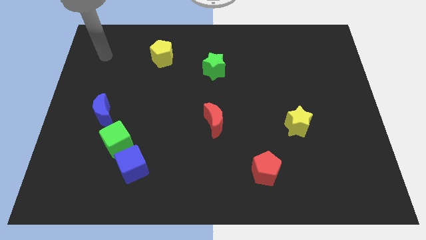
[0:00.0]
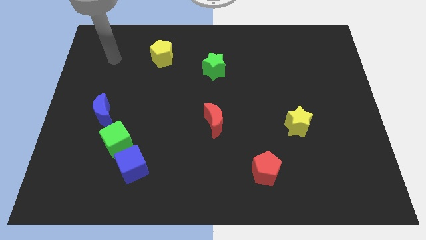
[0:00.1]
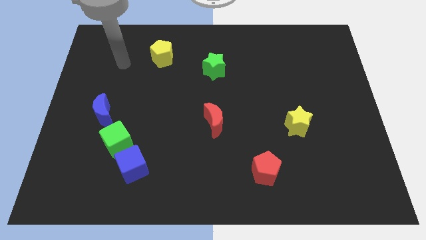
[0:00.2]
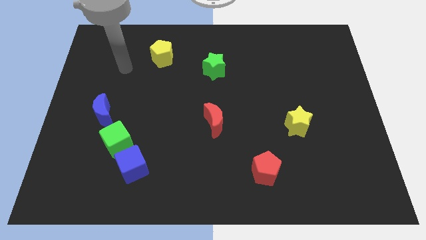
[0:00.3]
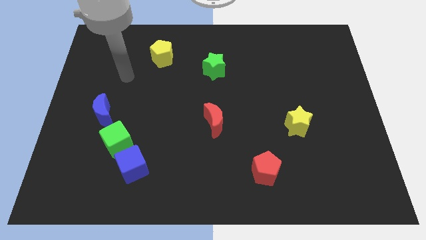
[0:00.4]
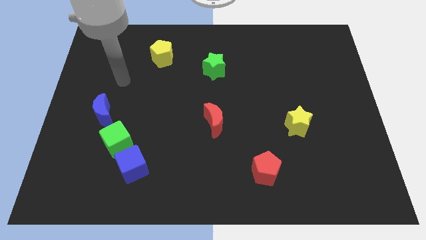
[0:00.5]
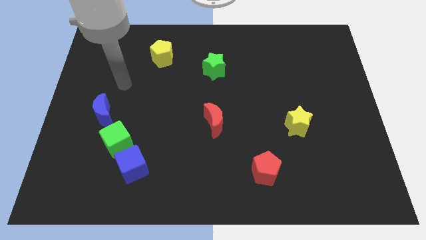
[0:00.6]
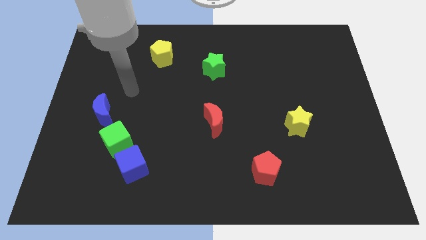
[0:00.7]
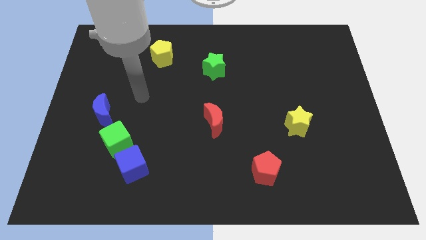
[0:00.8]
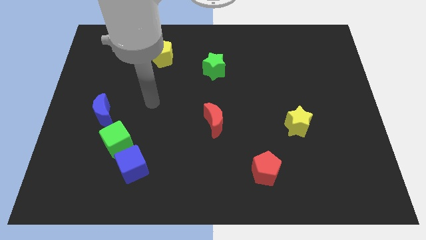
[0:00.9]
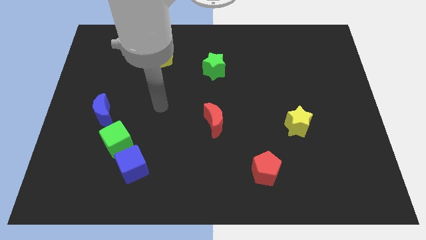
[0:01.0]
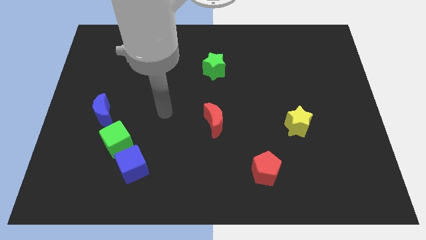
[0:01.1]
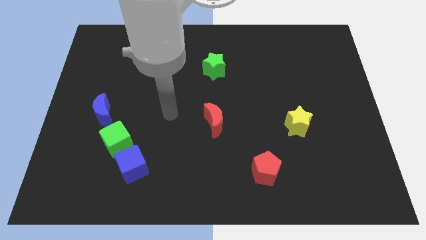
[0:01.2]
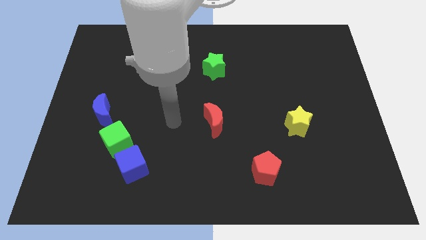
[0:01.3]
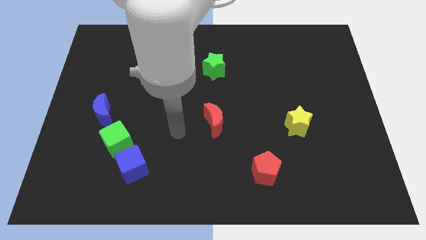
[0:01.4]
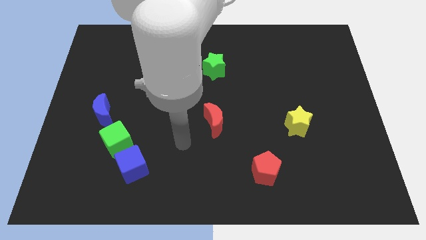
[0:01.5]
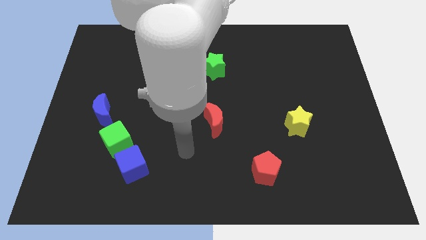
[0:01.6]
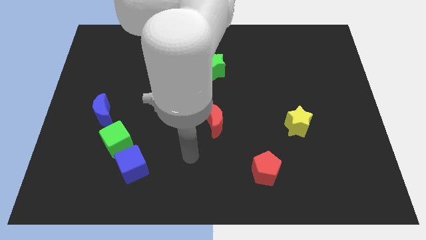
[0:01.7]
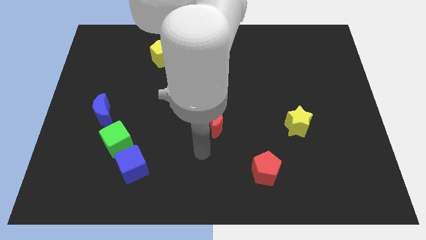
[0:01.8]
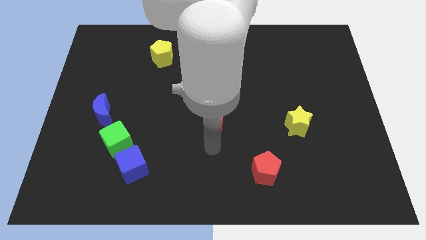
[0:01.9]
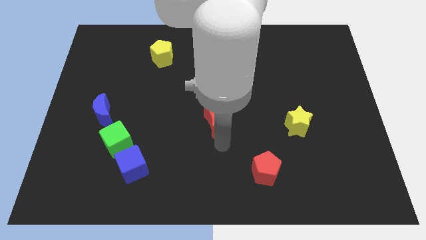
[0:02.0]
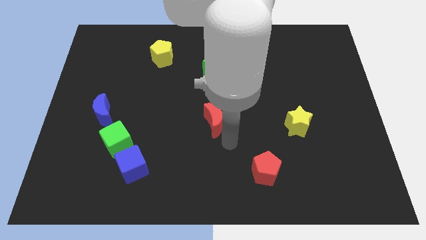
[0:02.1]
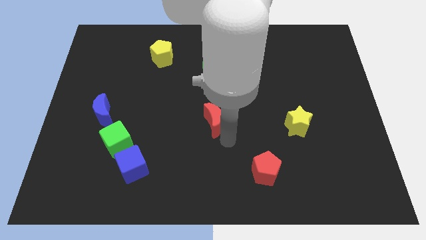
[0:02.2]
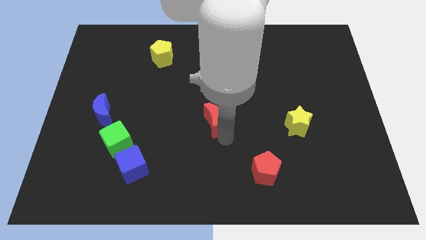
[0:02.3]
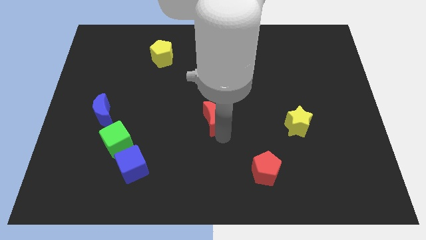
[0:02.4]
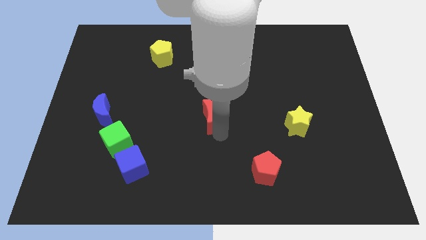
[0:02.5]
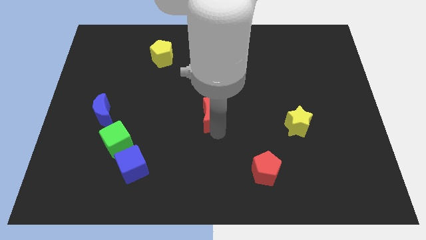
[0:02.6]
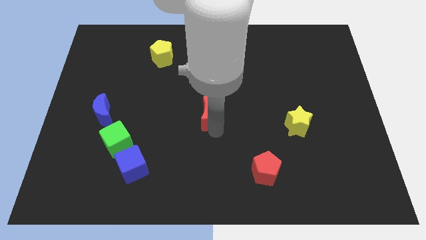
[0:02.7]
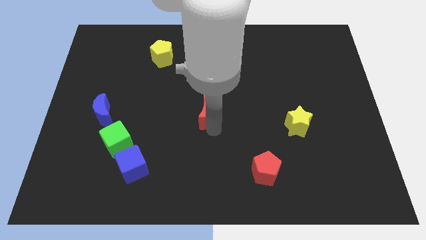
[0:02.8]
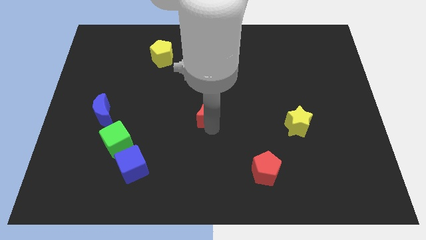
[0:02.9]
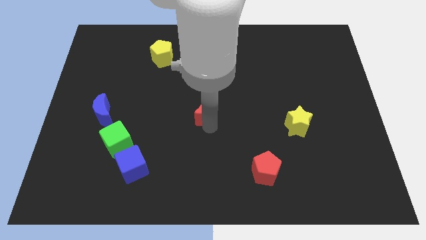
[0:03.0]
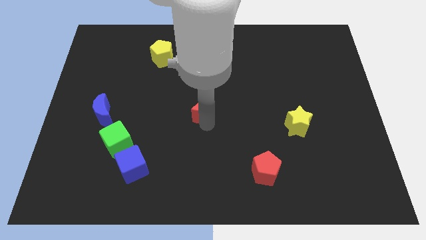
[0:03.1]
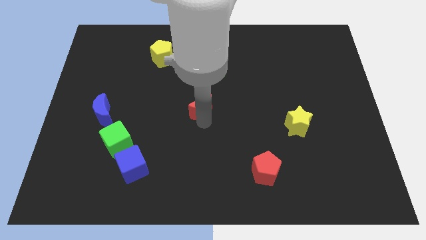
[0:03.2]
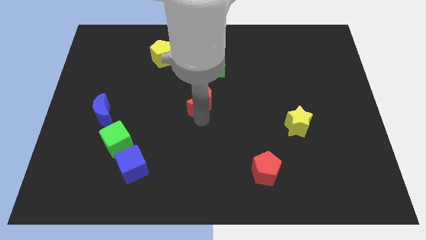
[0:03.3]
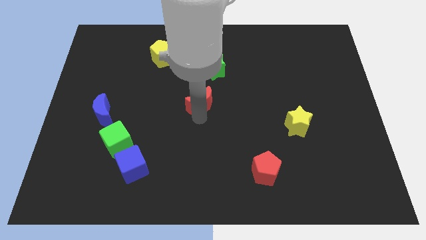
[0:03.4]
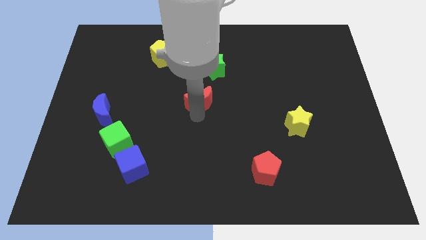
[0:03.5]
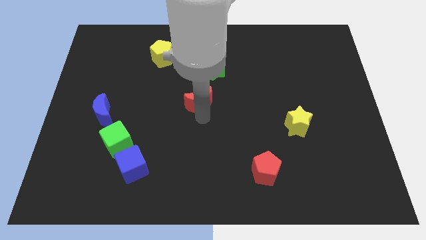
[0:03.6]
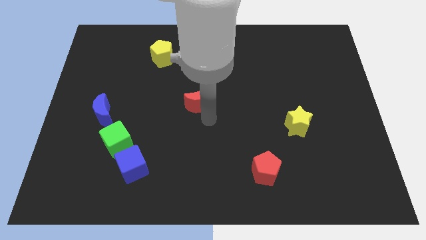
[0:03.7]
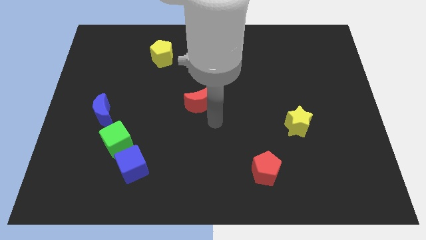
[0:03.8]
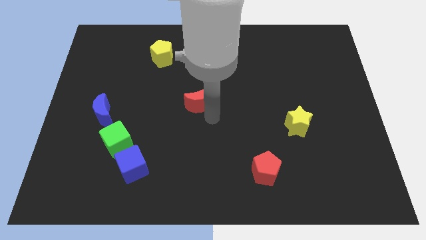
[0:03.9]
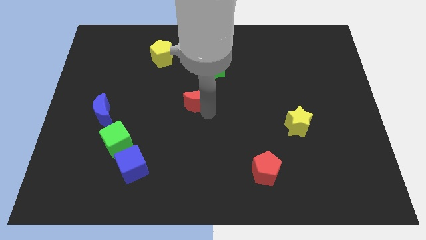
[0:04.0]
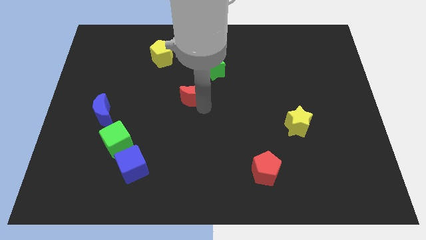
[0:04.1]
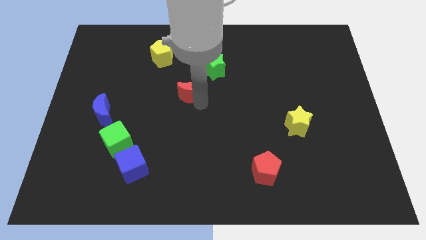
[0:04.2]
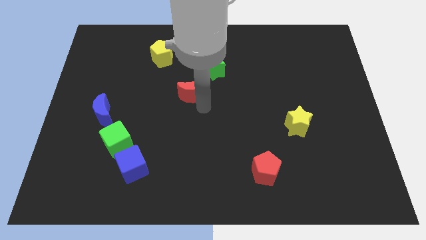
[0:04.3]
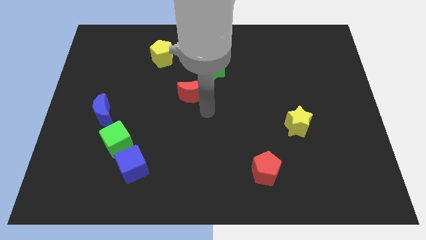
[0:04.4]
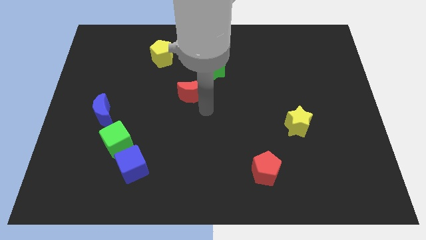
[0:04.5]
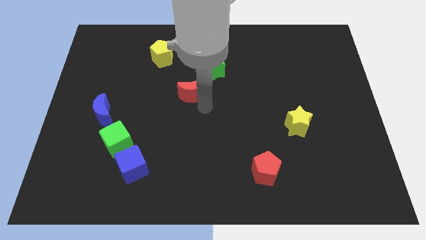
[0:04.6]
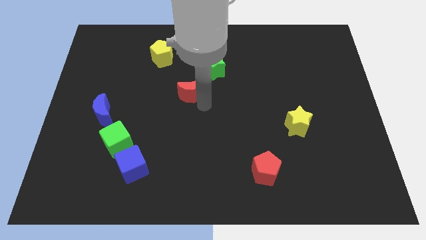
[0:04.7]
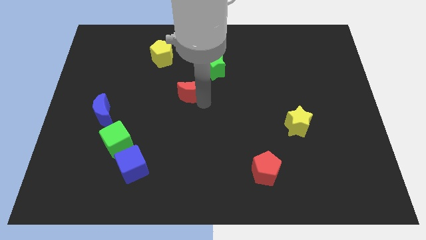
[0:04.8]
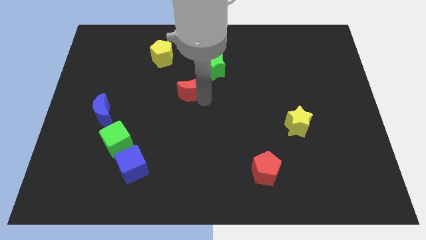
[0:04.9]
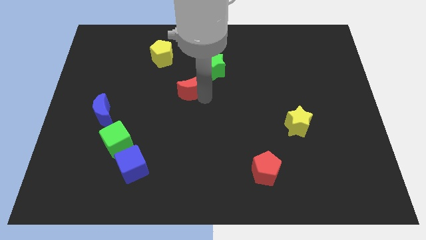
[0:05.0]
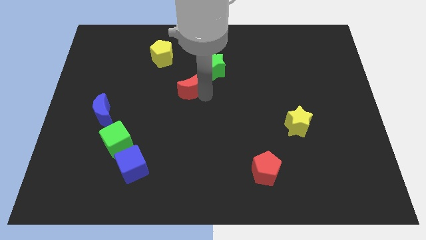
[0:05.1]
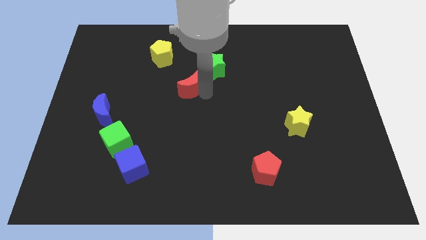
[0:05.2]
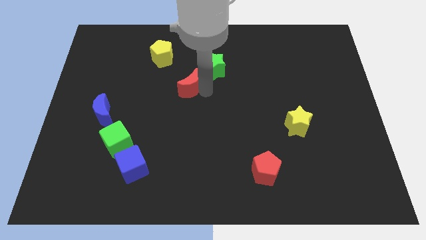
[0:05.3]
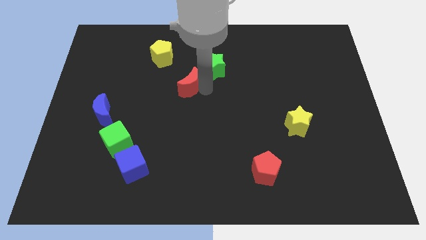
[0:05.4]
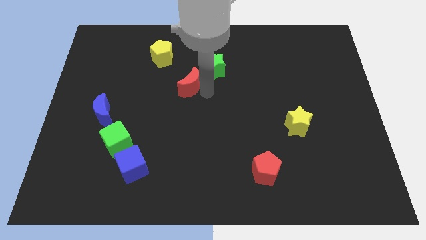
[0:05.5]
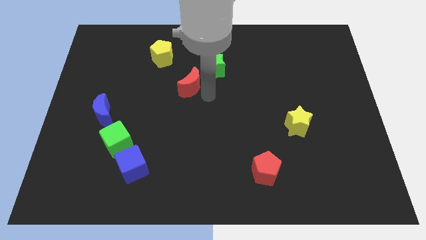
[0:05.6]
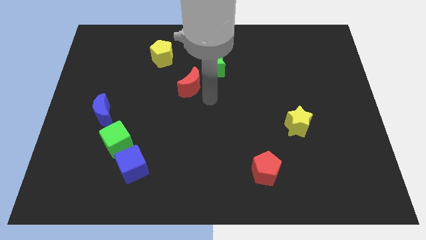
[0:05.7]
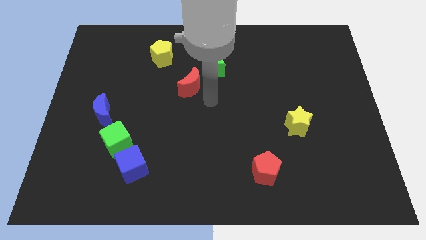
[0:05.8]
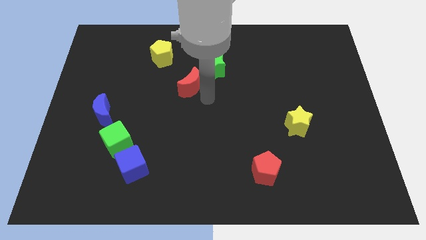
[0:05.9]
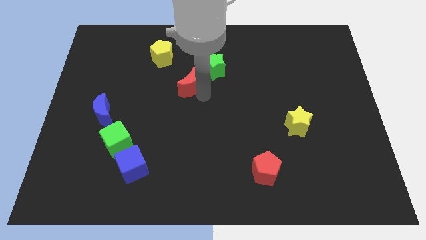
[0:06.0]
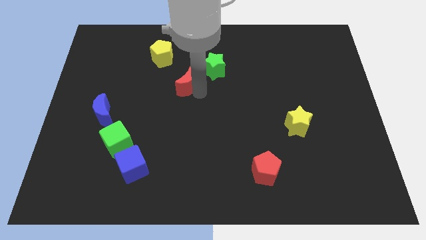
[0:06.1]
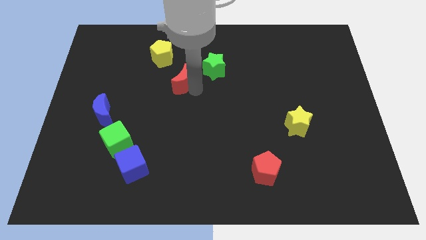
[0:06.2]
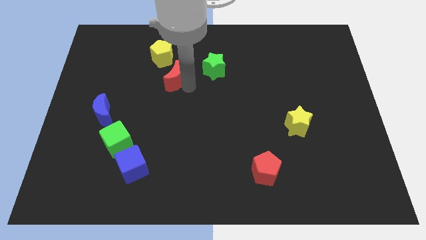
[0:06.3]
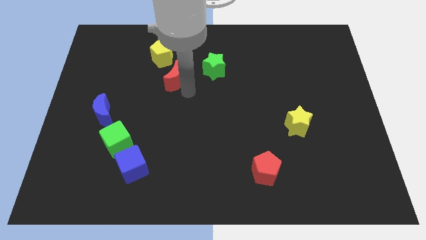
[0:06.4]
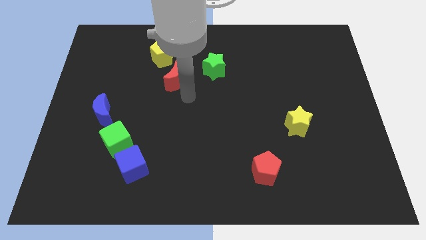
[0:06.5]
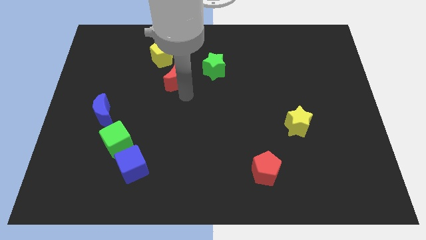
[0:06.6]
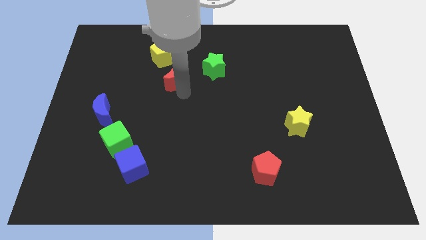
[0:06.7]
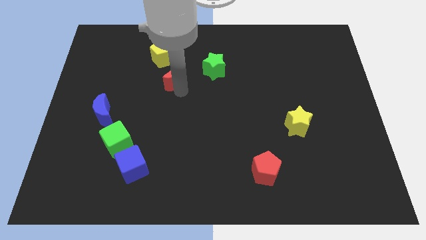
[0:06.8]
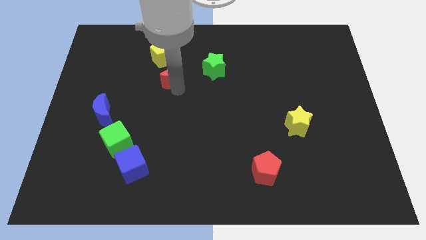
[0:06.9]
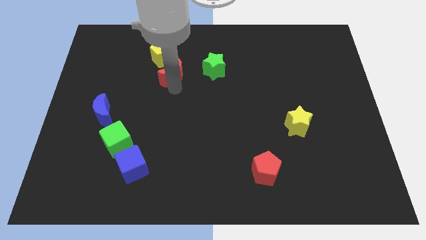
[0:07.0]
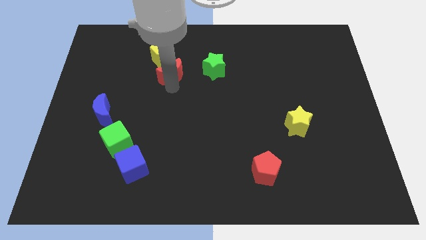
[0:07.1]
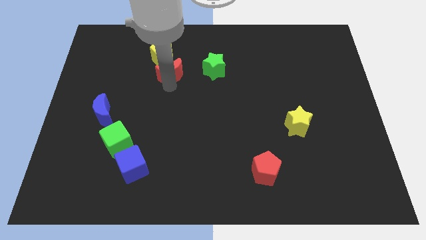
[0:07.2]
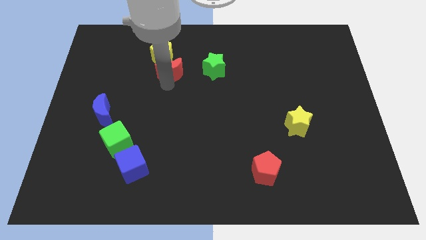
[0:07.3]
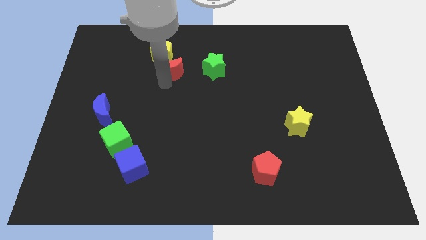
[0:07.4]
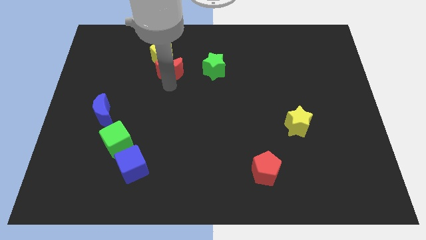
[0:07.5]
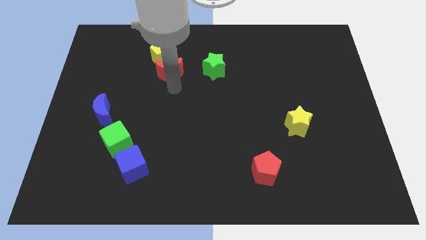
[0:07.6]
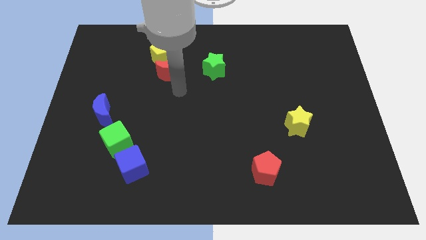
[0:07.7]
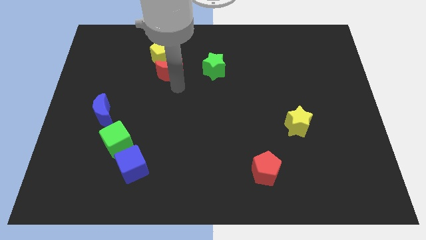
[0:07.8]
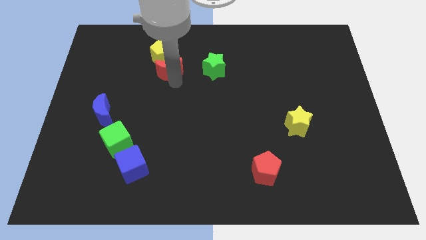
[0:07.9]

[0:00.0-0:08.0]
put the red moon next to the yellow pentagon
